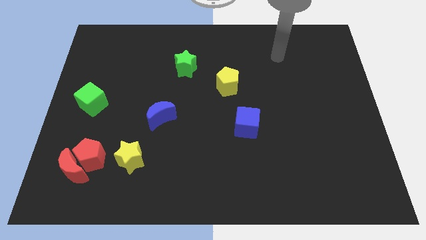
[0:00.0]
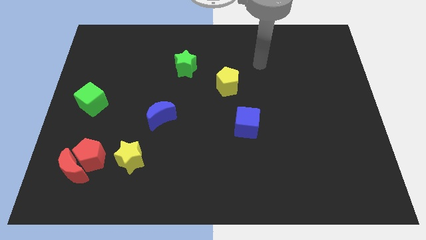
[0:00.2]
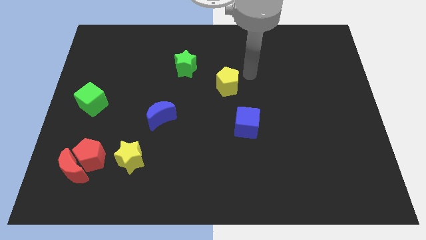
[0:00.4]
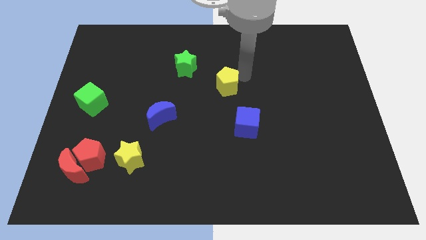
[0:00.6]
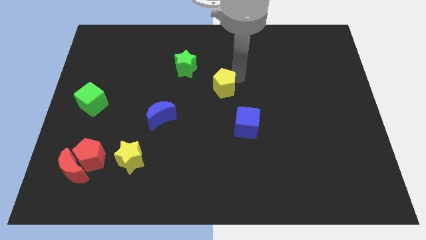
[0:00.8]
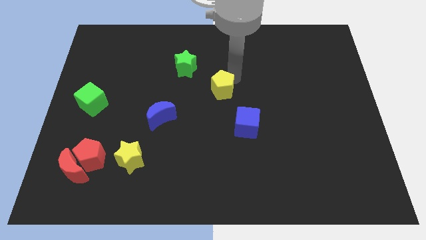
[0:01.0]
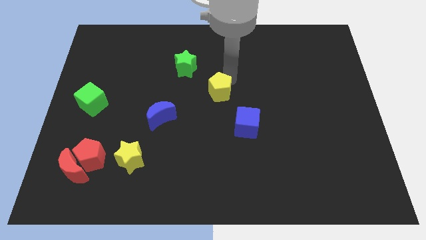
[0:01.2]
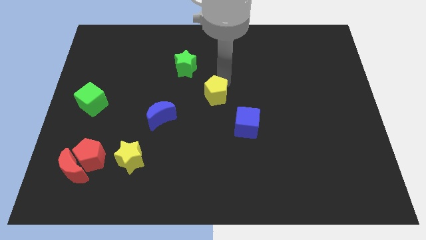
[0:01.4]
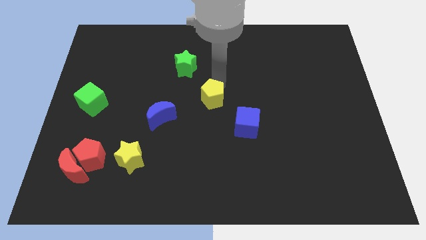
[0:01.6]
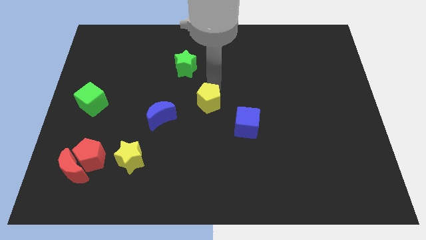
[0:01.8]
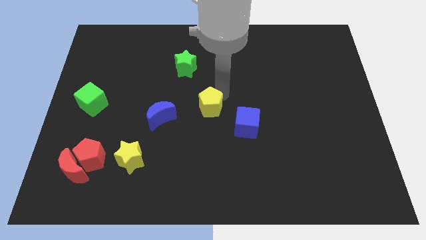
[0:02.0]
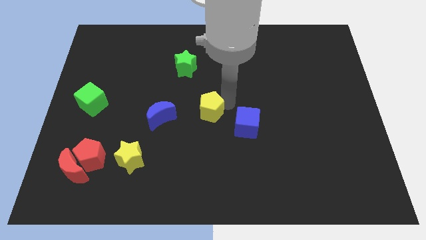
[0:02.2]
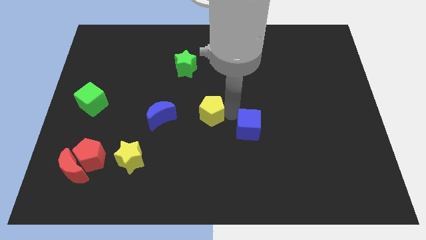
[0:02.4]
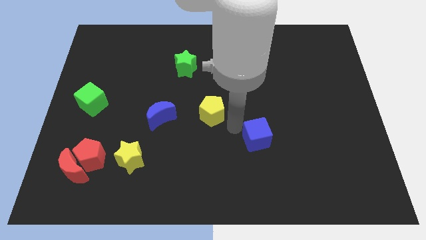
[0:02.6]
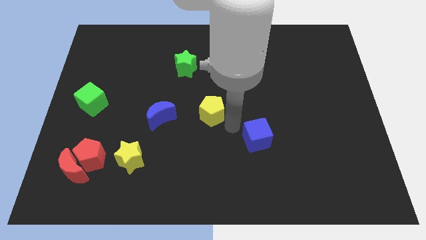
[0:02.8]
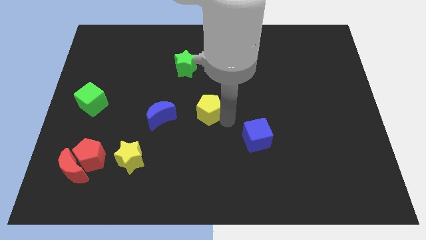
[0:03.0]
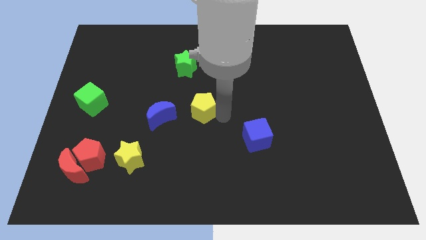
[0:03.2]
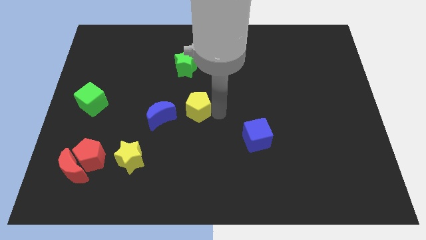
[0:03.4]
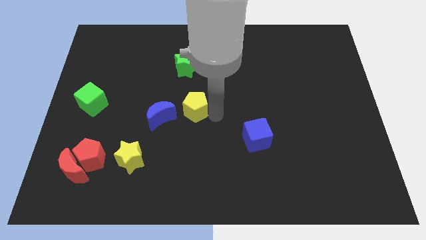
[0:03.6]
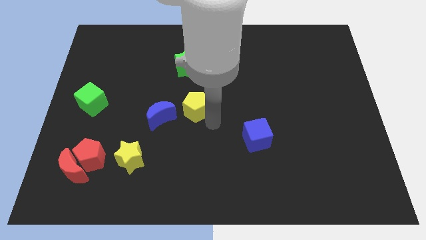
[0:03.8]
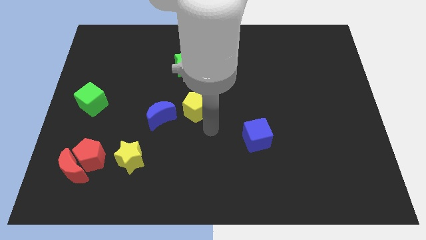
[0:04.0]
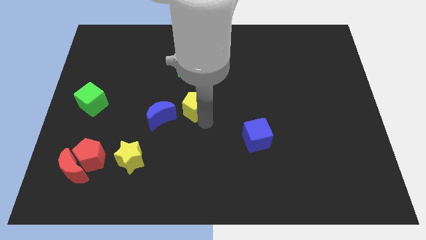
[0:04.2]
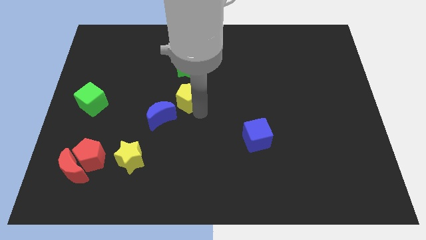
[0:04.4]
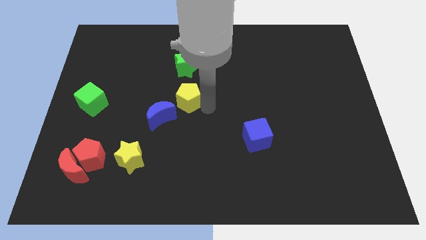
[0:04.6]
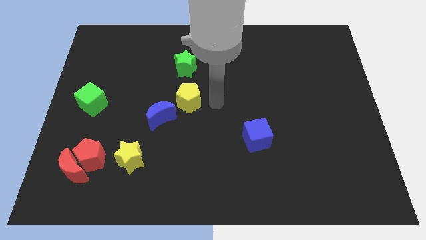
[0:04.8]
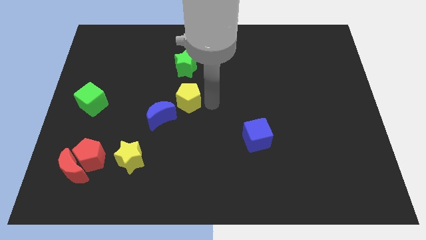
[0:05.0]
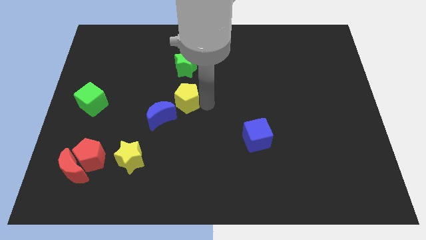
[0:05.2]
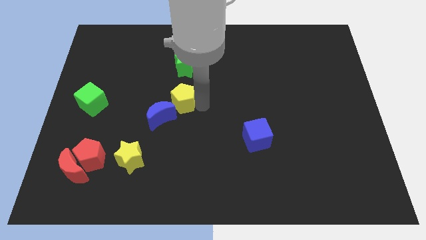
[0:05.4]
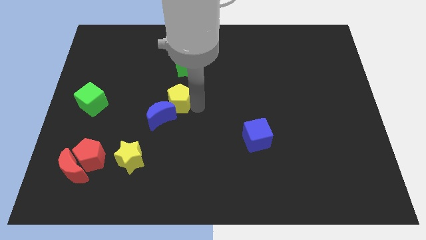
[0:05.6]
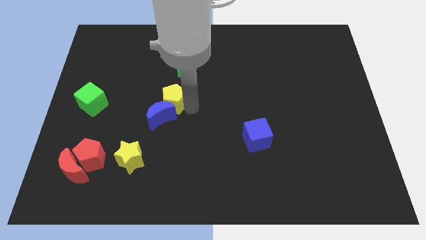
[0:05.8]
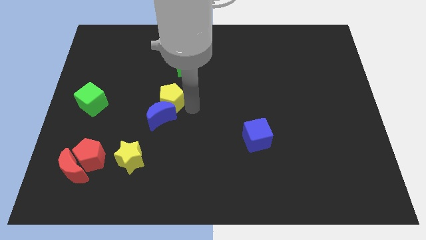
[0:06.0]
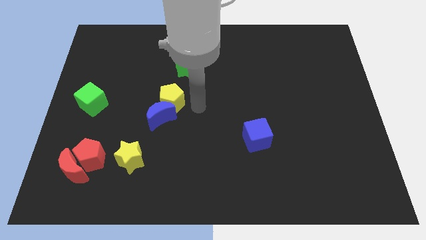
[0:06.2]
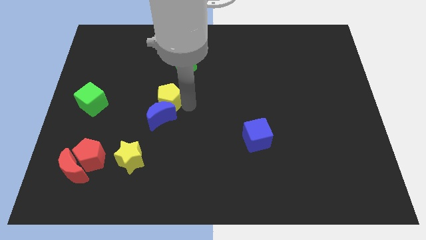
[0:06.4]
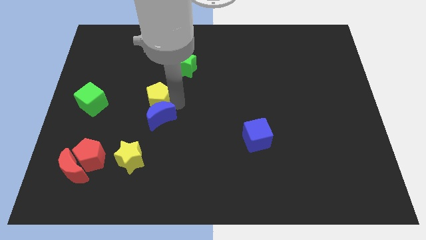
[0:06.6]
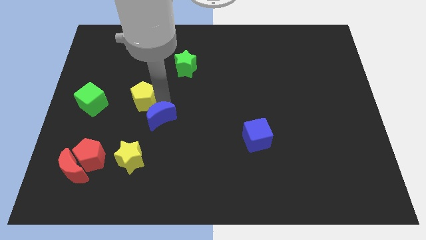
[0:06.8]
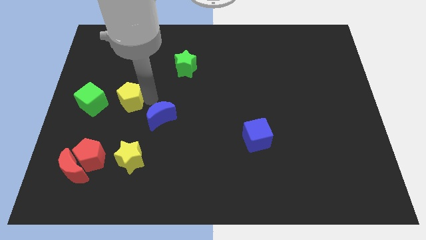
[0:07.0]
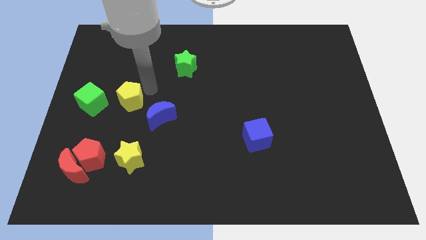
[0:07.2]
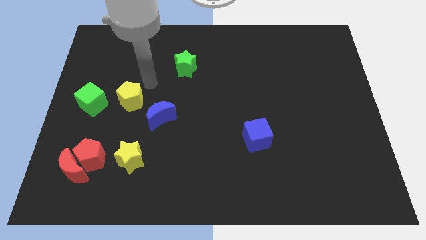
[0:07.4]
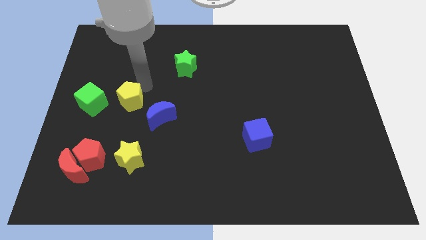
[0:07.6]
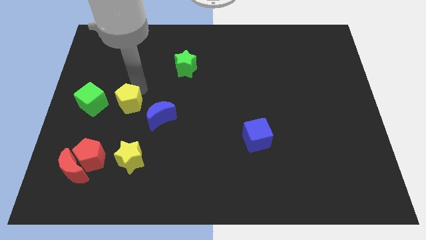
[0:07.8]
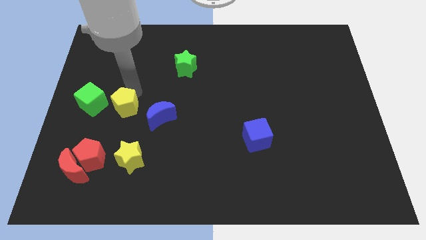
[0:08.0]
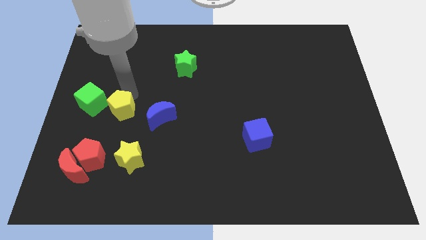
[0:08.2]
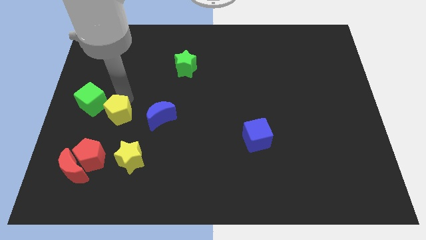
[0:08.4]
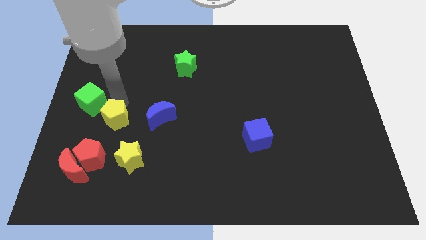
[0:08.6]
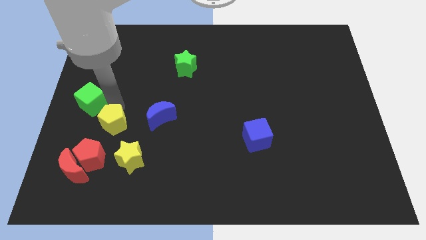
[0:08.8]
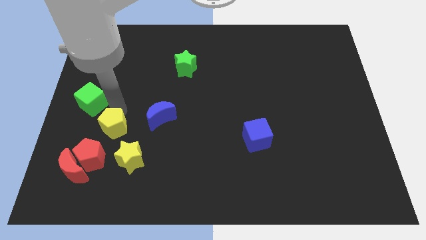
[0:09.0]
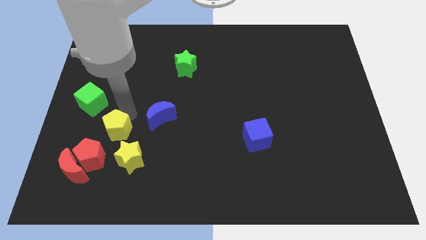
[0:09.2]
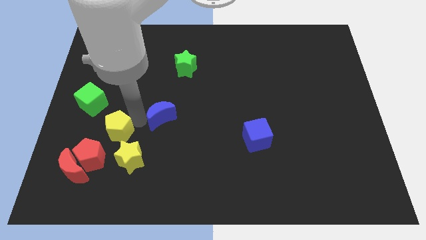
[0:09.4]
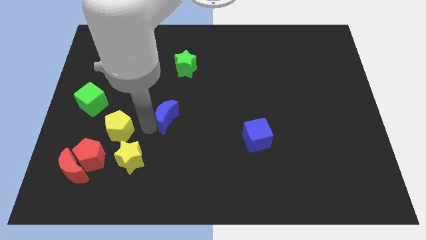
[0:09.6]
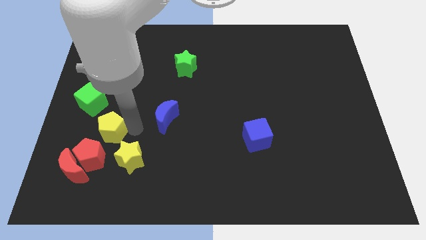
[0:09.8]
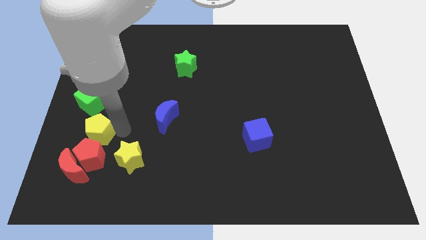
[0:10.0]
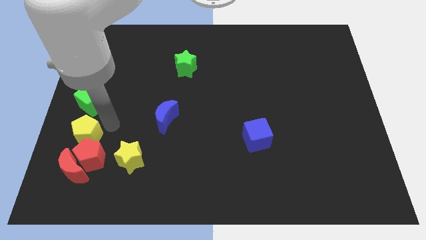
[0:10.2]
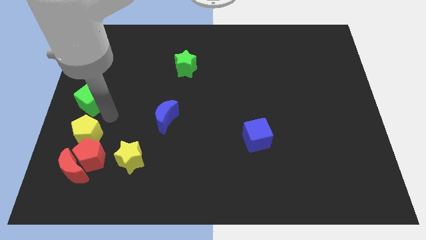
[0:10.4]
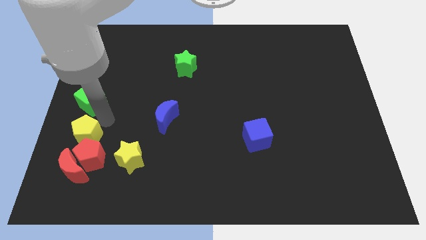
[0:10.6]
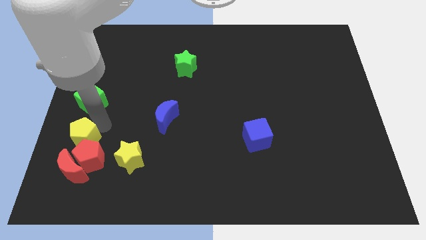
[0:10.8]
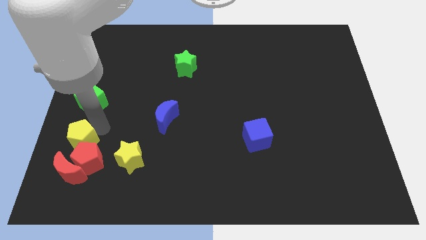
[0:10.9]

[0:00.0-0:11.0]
put the yellow pentagon to the left of the yellow star

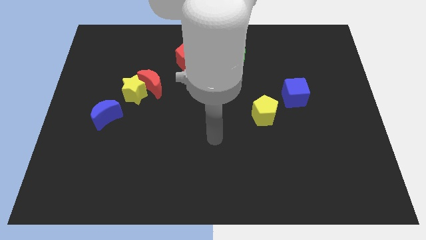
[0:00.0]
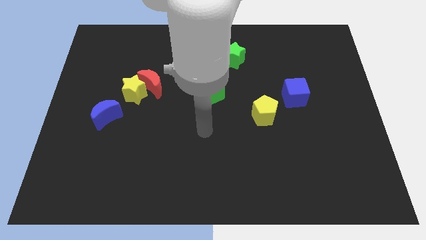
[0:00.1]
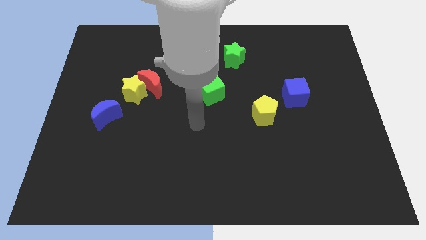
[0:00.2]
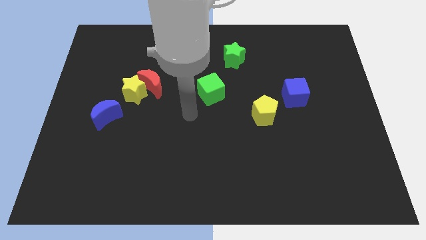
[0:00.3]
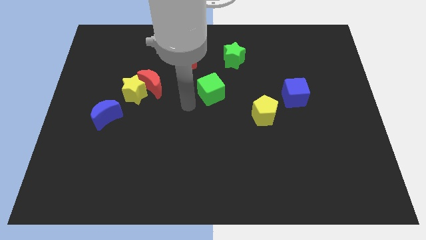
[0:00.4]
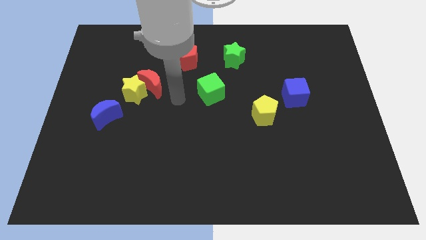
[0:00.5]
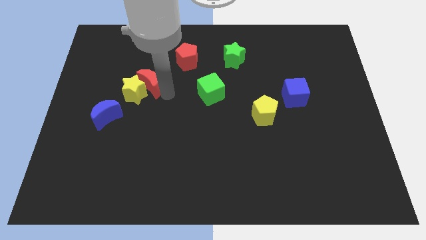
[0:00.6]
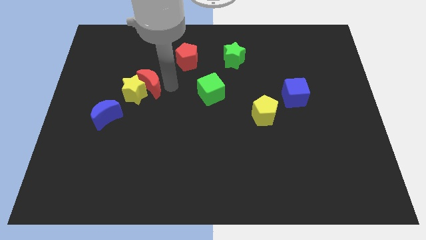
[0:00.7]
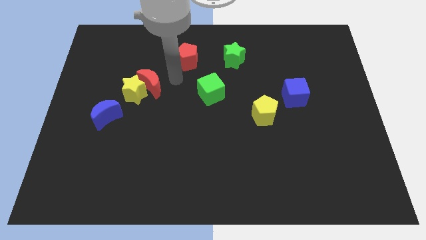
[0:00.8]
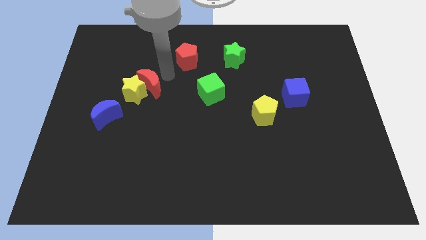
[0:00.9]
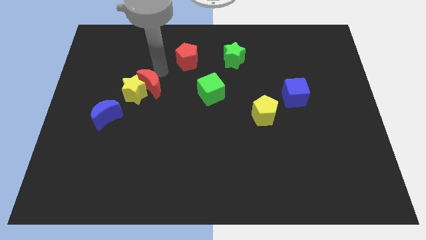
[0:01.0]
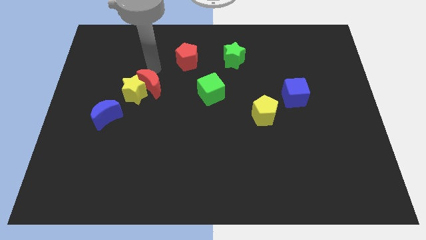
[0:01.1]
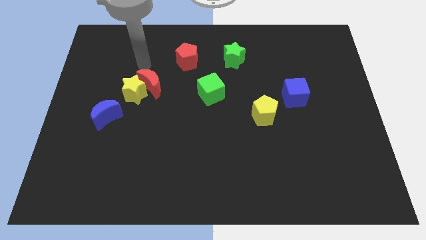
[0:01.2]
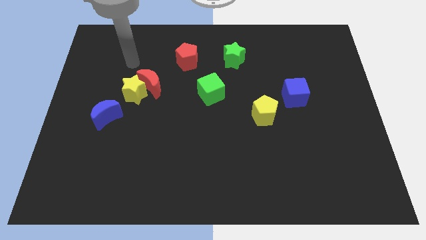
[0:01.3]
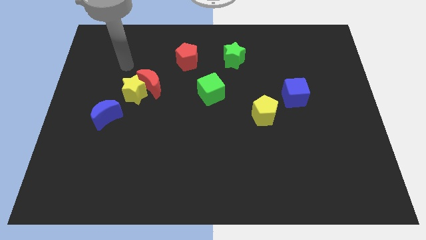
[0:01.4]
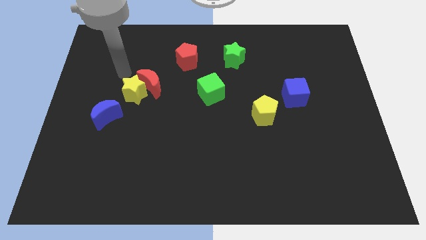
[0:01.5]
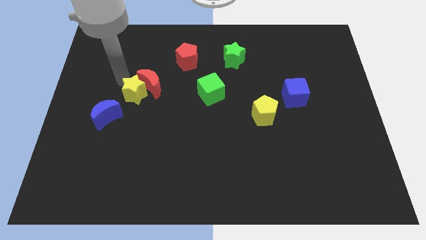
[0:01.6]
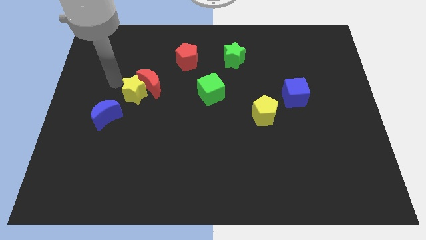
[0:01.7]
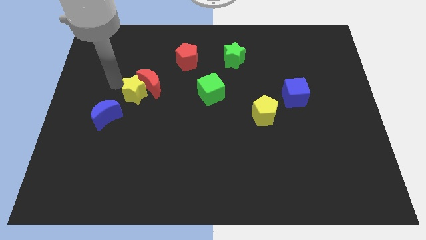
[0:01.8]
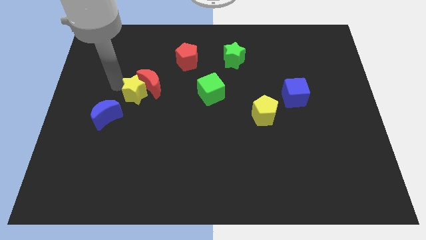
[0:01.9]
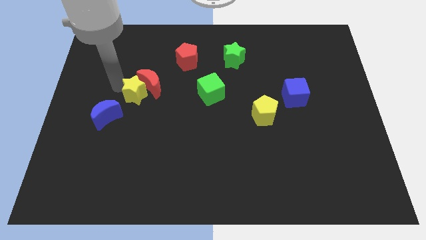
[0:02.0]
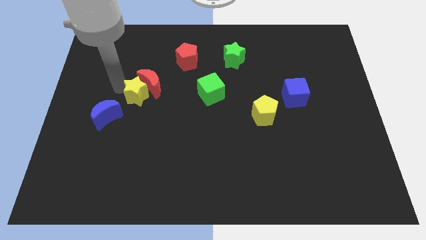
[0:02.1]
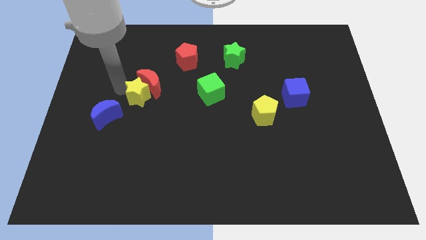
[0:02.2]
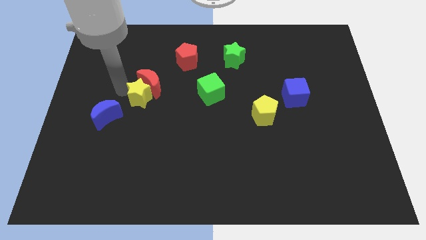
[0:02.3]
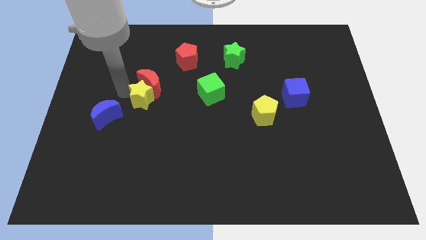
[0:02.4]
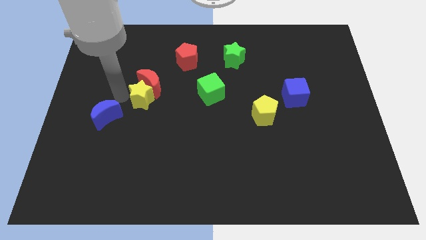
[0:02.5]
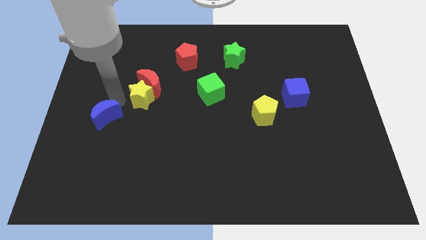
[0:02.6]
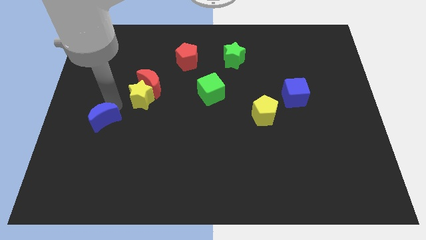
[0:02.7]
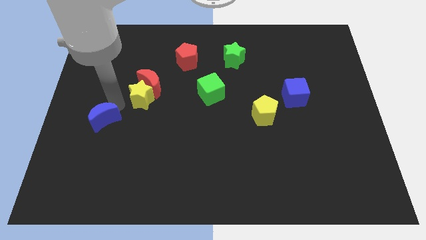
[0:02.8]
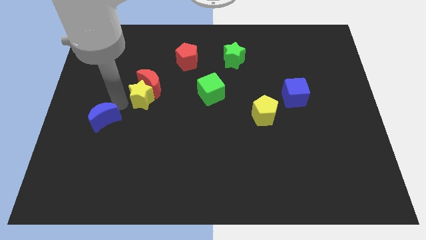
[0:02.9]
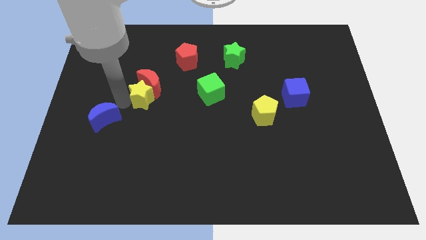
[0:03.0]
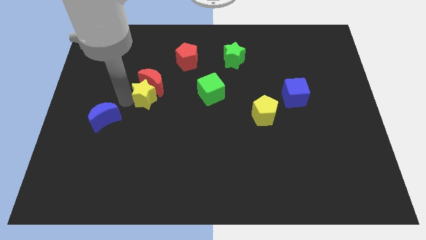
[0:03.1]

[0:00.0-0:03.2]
slide the yellow star to the left of the green cube
